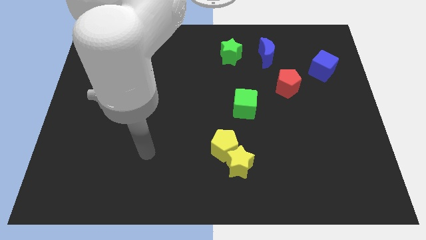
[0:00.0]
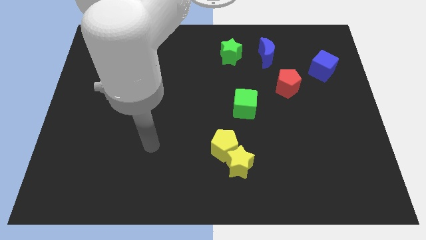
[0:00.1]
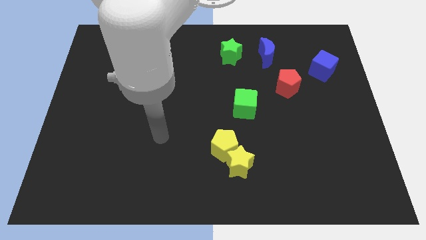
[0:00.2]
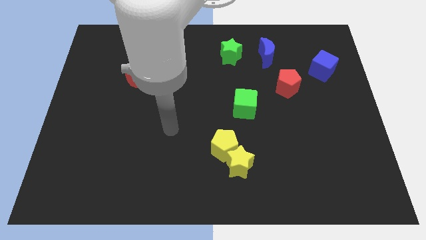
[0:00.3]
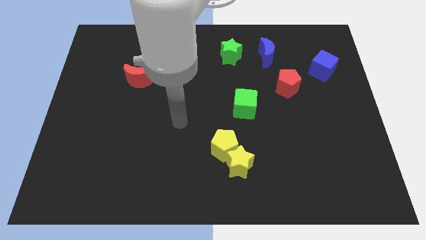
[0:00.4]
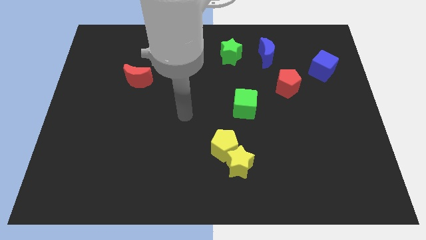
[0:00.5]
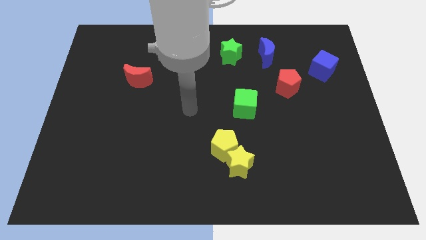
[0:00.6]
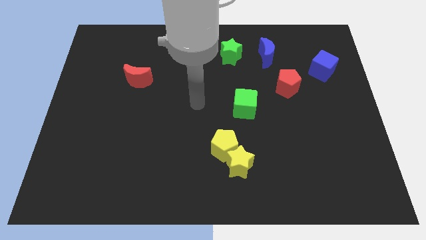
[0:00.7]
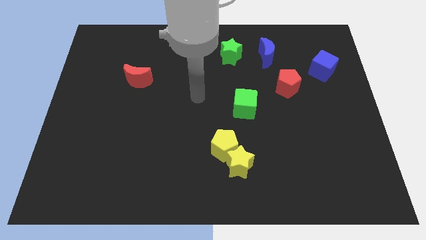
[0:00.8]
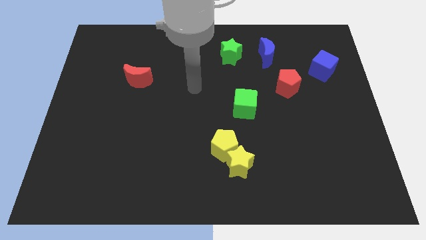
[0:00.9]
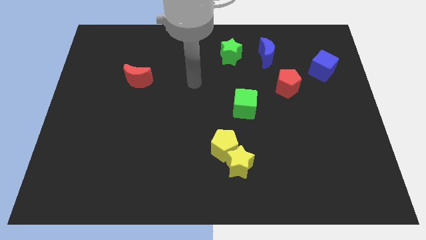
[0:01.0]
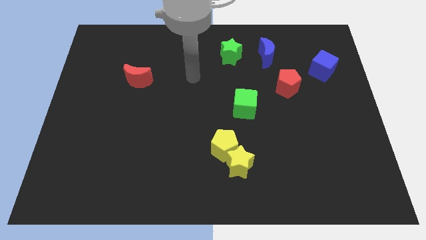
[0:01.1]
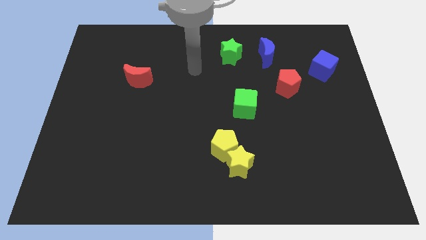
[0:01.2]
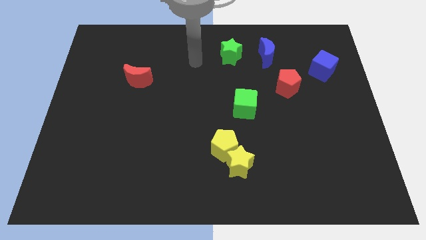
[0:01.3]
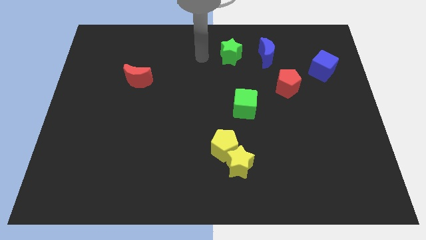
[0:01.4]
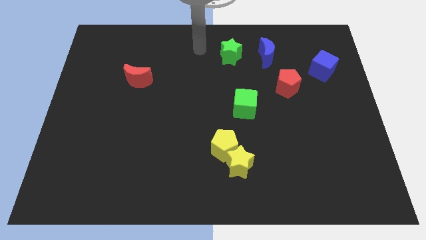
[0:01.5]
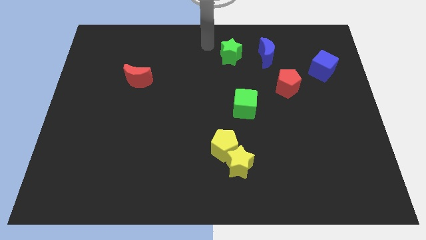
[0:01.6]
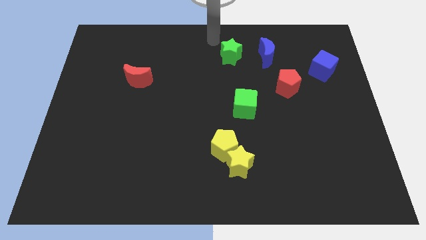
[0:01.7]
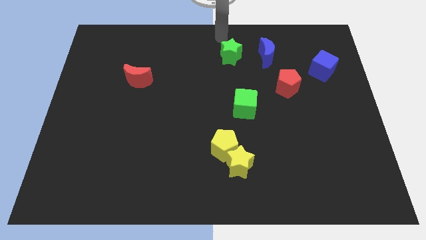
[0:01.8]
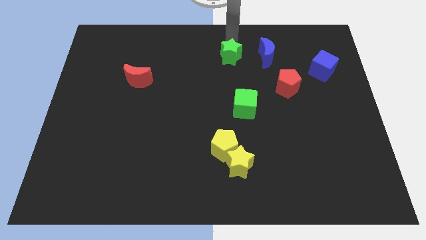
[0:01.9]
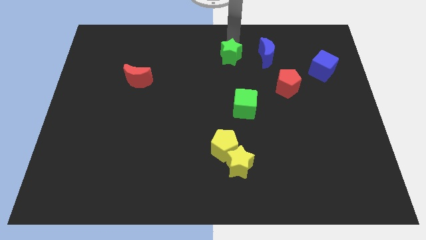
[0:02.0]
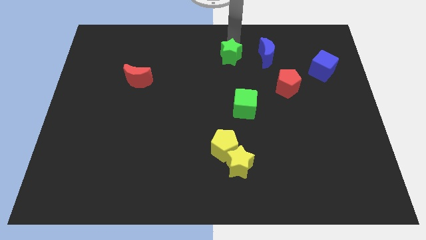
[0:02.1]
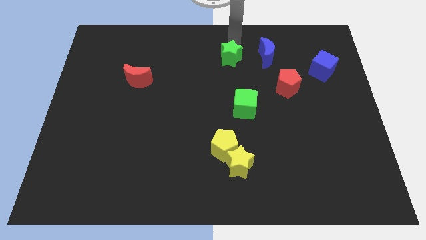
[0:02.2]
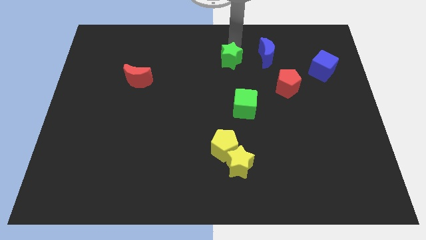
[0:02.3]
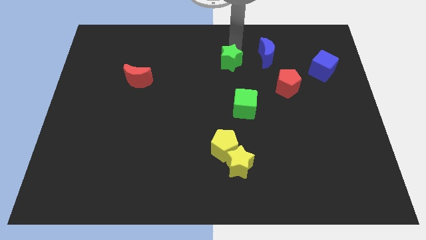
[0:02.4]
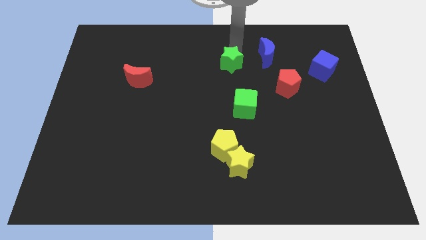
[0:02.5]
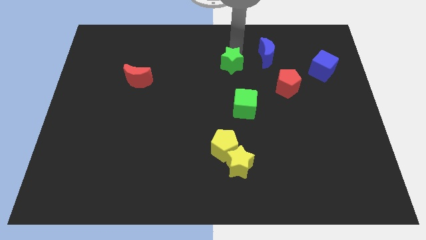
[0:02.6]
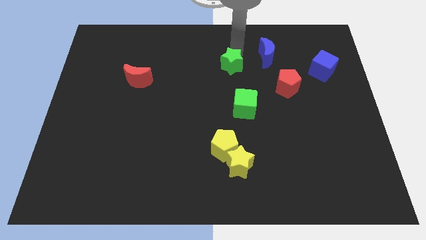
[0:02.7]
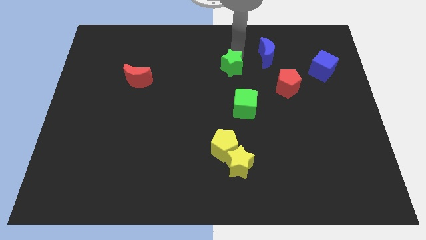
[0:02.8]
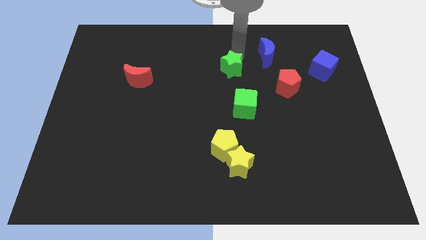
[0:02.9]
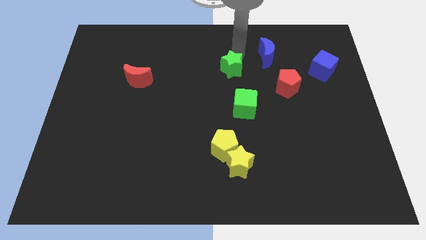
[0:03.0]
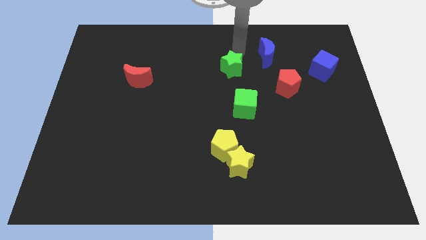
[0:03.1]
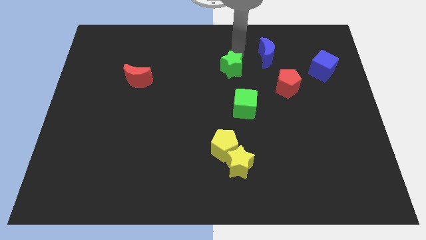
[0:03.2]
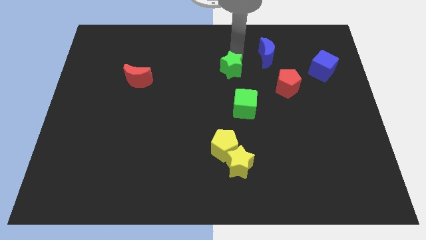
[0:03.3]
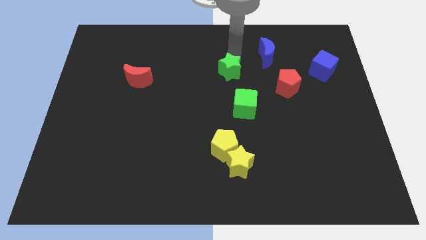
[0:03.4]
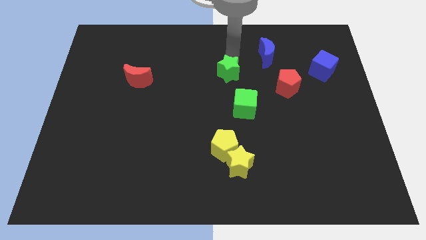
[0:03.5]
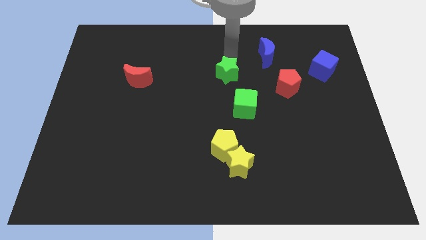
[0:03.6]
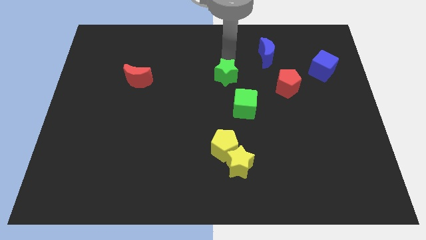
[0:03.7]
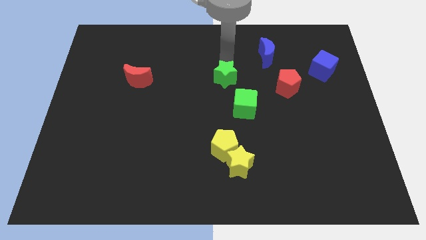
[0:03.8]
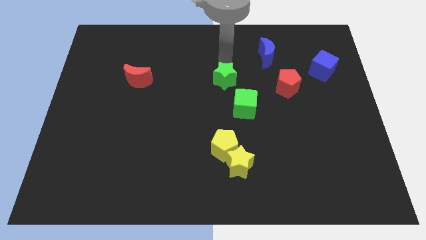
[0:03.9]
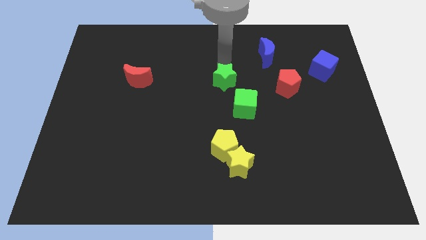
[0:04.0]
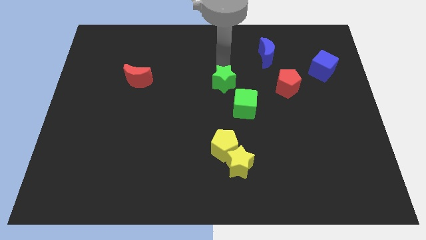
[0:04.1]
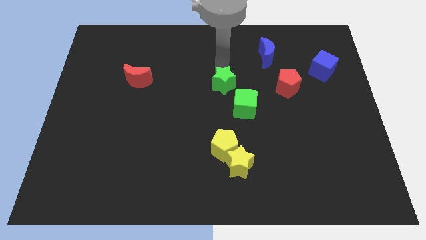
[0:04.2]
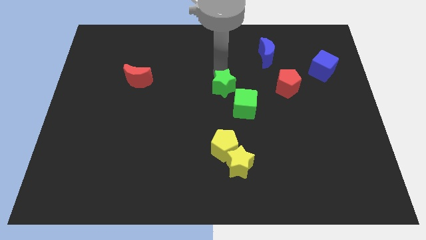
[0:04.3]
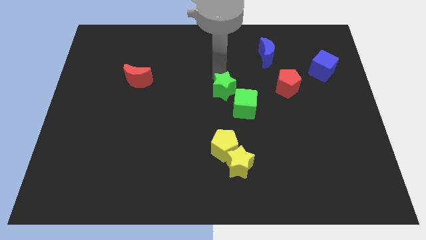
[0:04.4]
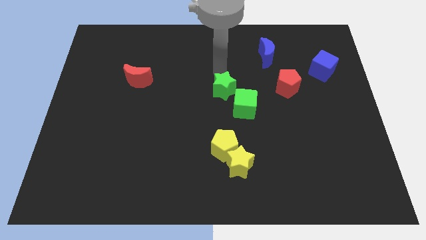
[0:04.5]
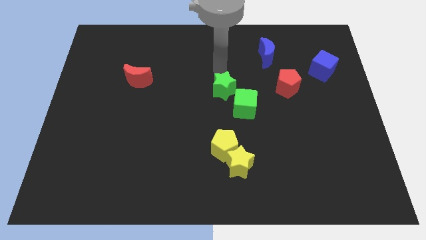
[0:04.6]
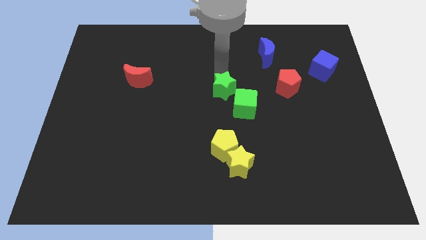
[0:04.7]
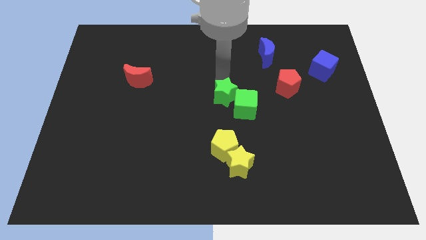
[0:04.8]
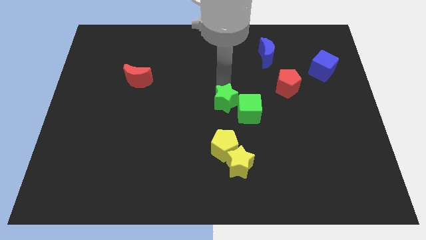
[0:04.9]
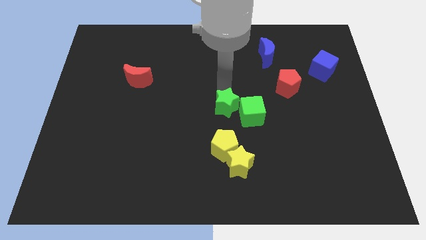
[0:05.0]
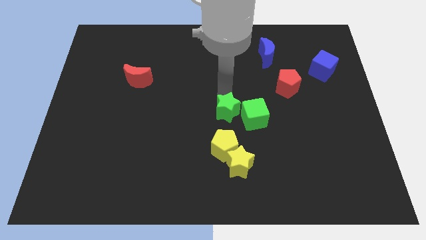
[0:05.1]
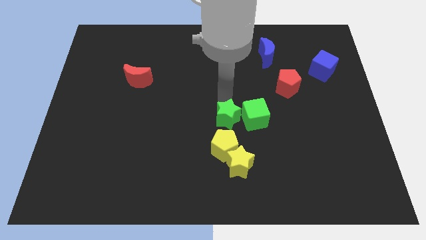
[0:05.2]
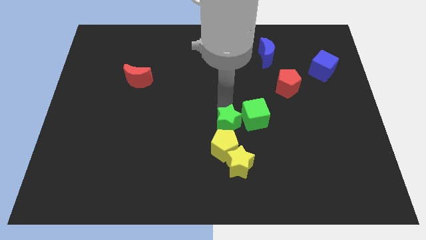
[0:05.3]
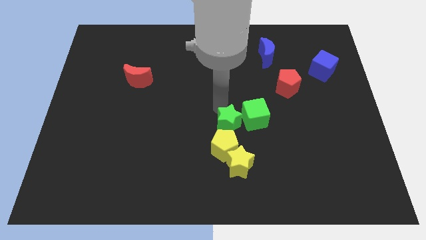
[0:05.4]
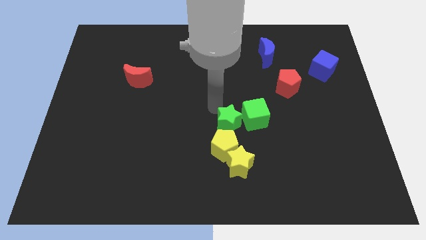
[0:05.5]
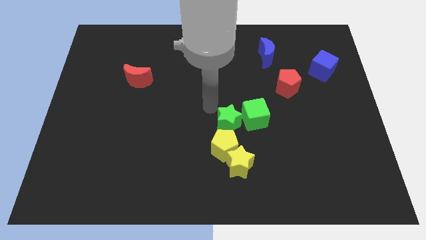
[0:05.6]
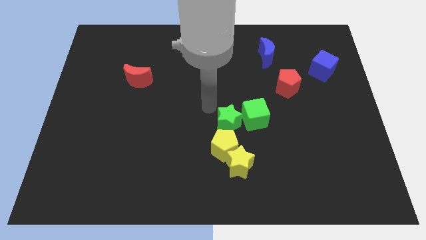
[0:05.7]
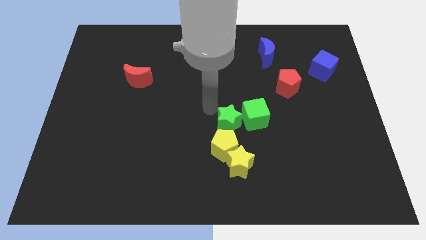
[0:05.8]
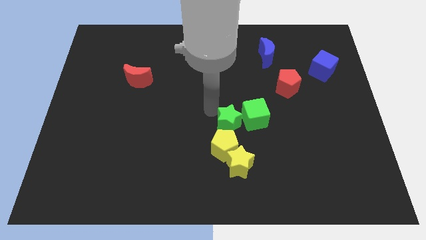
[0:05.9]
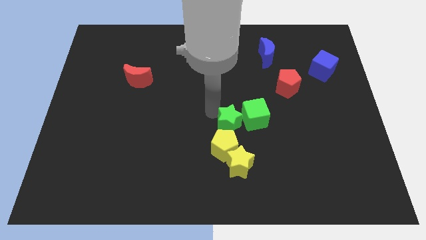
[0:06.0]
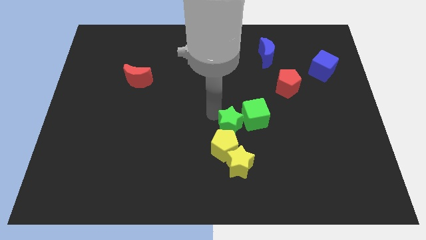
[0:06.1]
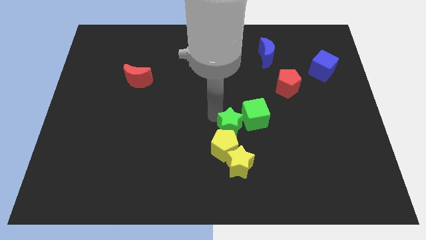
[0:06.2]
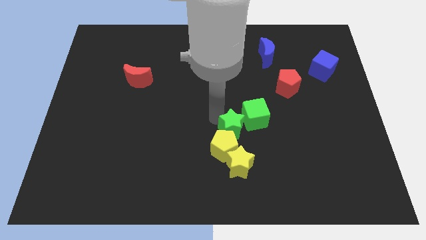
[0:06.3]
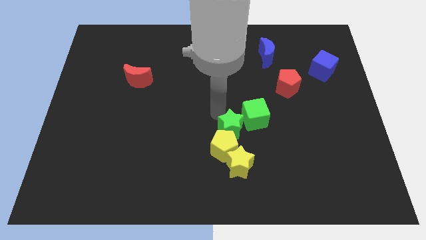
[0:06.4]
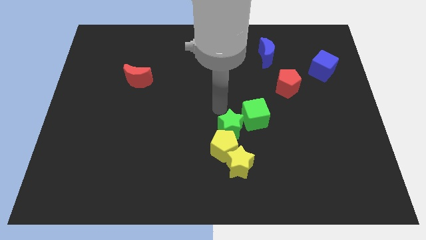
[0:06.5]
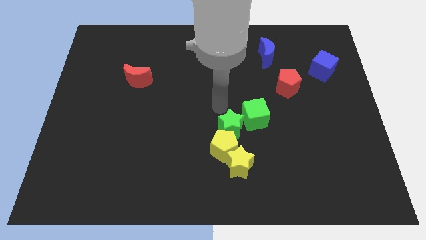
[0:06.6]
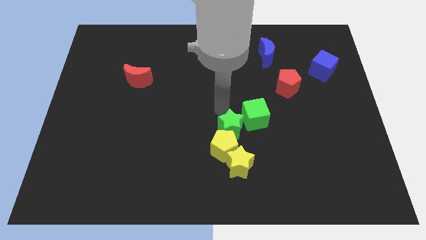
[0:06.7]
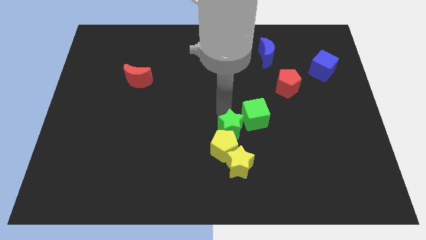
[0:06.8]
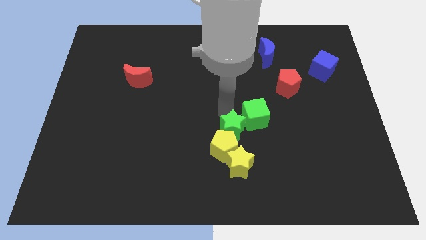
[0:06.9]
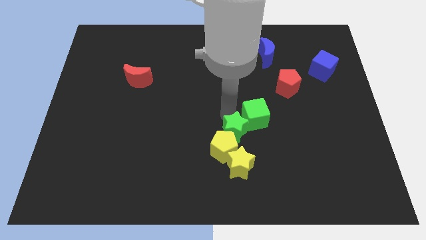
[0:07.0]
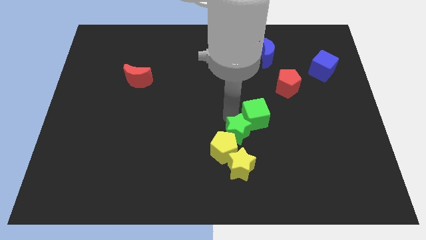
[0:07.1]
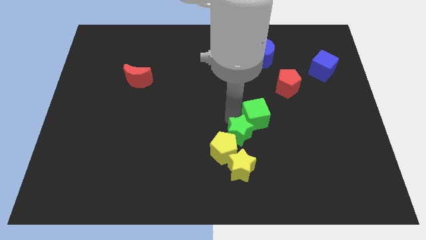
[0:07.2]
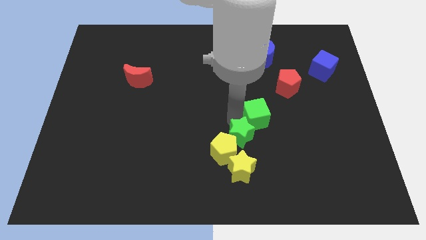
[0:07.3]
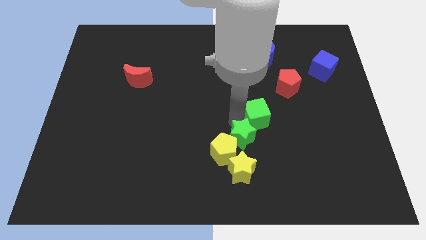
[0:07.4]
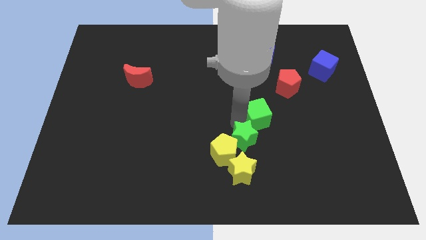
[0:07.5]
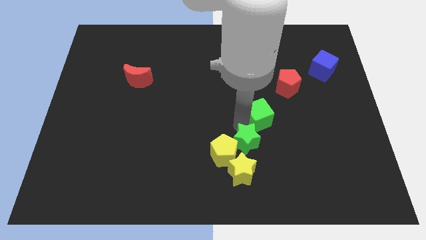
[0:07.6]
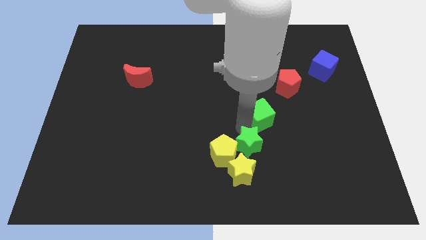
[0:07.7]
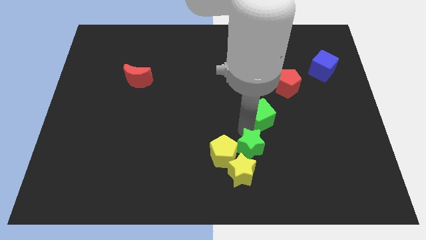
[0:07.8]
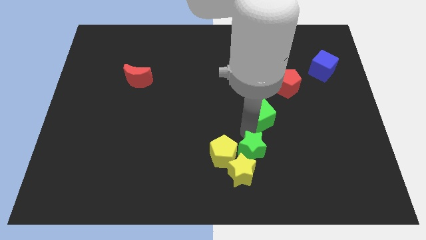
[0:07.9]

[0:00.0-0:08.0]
put the green star close to the yellow star
